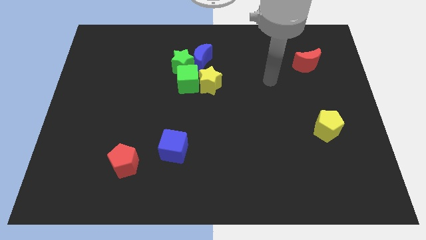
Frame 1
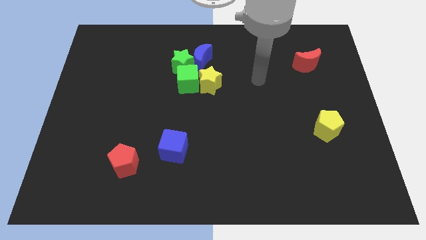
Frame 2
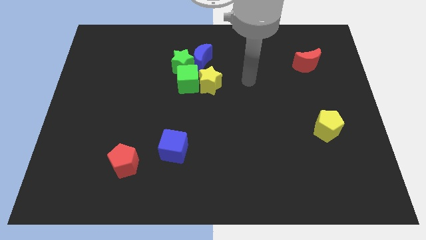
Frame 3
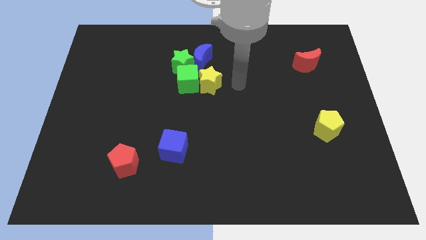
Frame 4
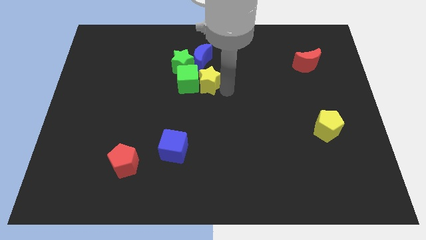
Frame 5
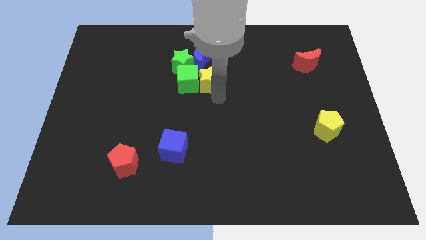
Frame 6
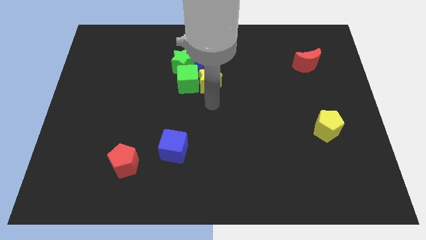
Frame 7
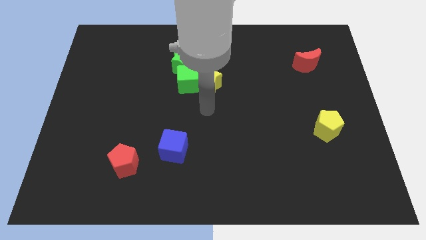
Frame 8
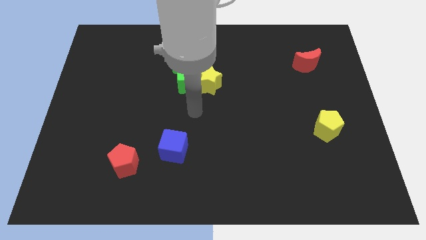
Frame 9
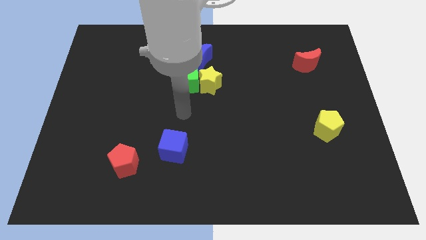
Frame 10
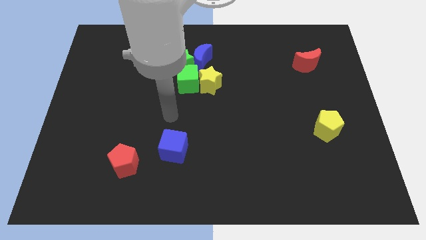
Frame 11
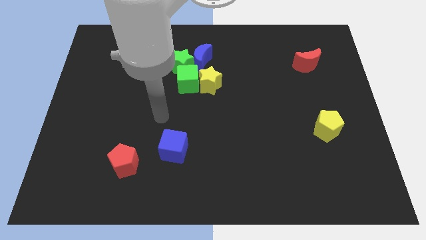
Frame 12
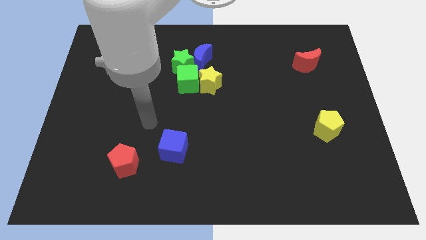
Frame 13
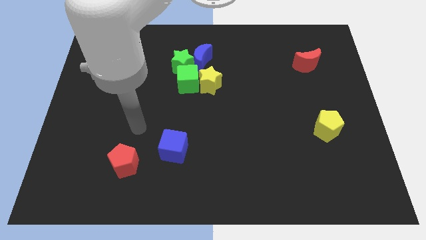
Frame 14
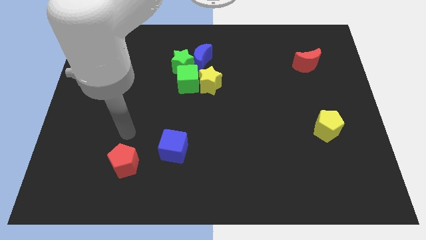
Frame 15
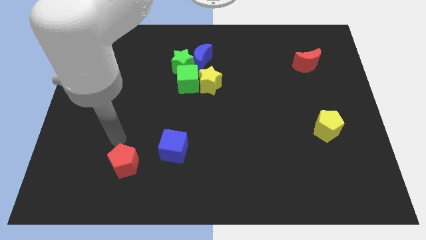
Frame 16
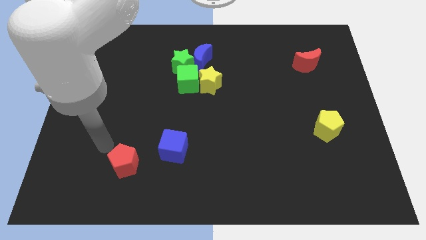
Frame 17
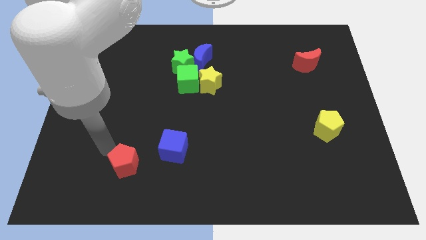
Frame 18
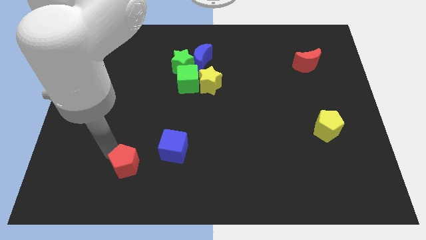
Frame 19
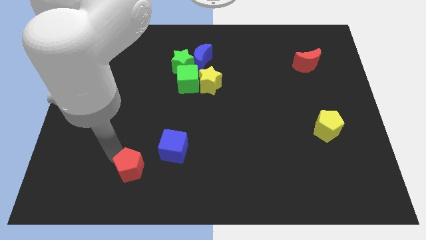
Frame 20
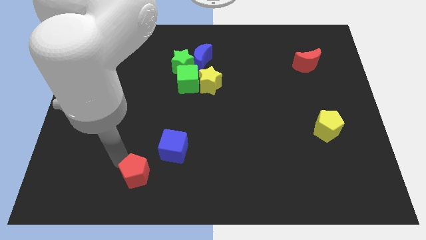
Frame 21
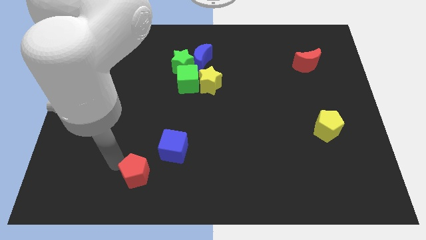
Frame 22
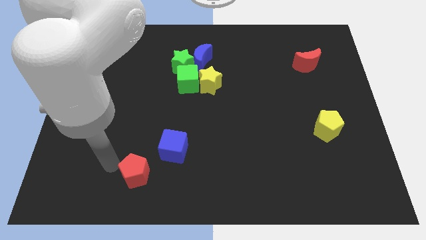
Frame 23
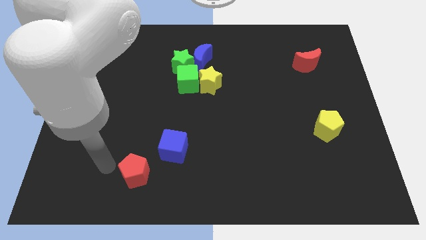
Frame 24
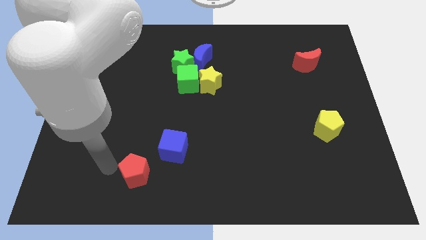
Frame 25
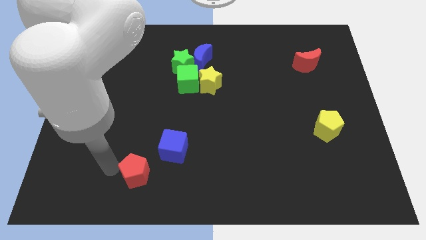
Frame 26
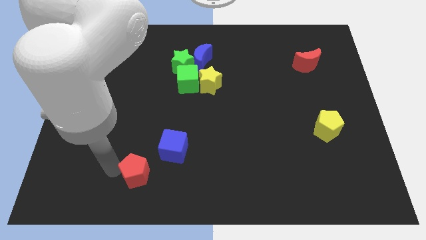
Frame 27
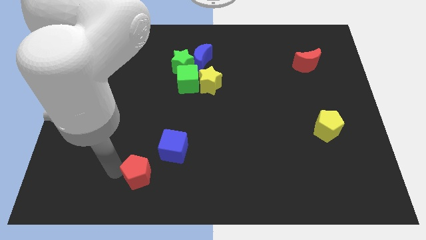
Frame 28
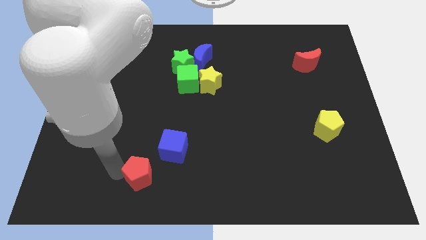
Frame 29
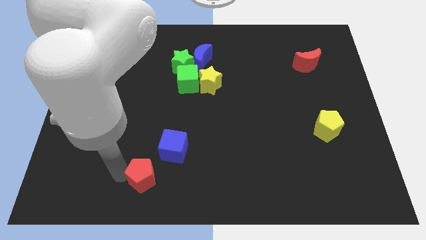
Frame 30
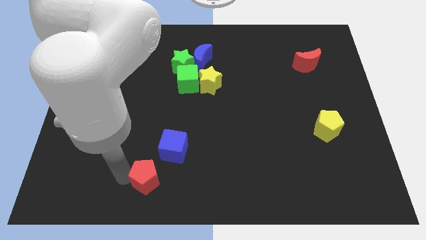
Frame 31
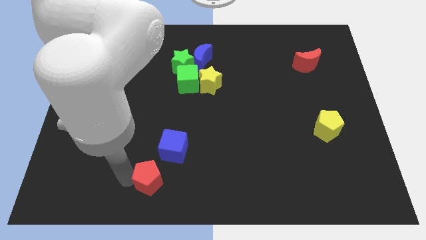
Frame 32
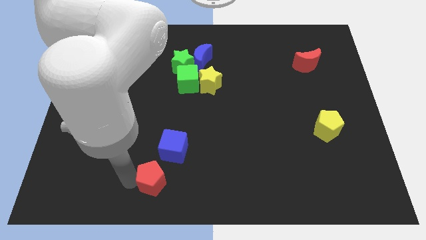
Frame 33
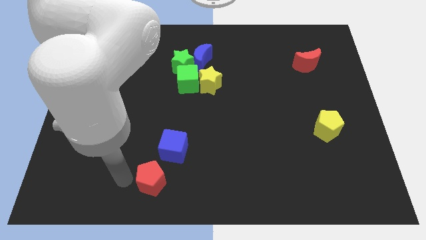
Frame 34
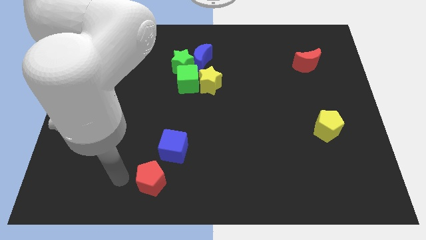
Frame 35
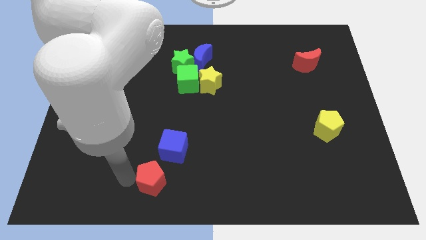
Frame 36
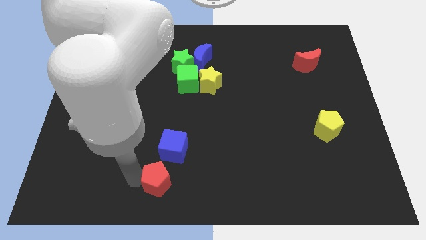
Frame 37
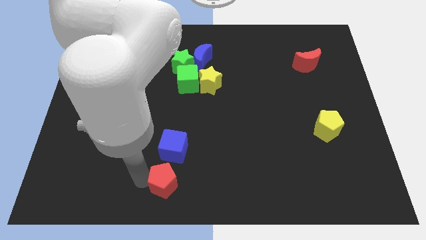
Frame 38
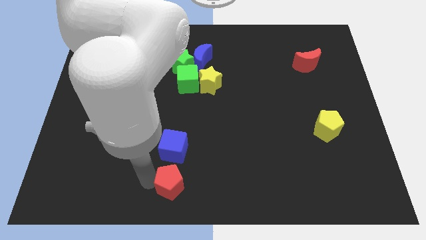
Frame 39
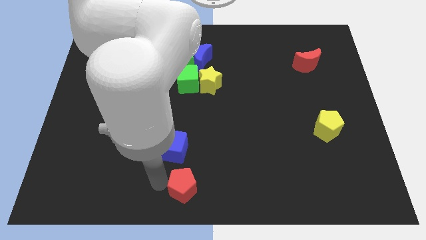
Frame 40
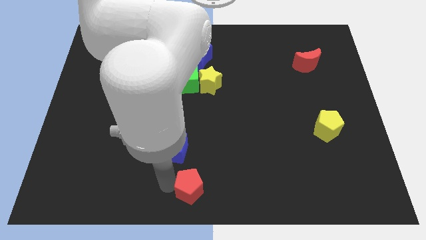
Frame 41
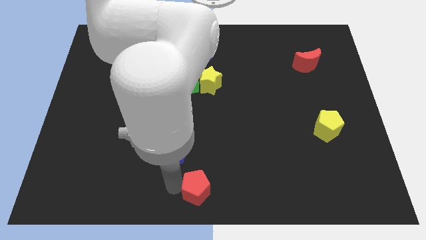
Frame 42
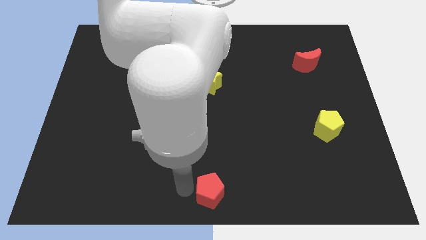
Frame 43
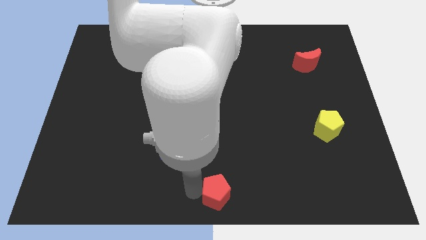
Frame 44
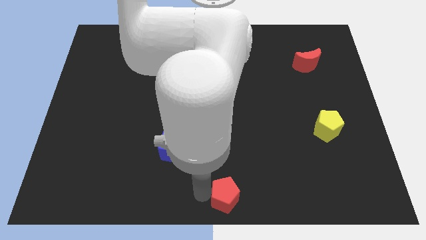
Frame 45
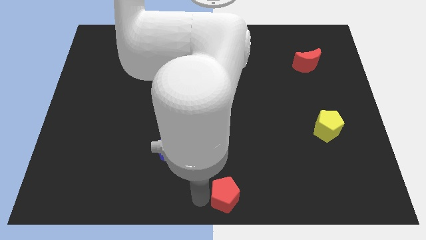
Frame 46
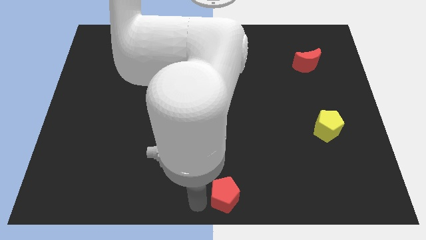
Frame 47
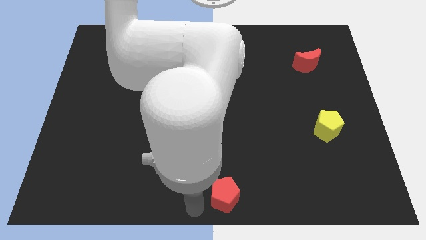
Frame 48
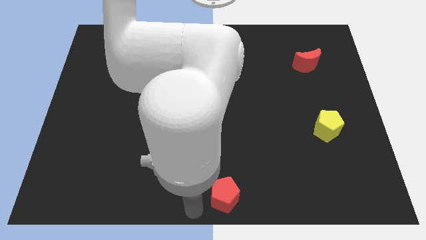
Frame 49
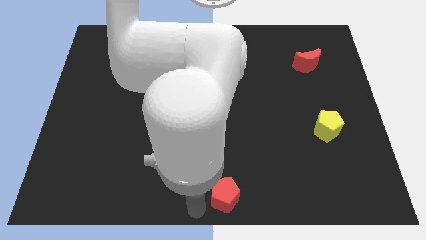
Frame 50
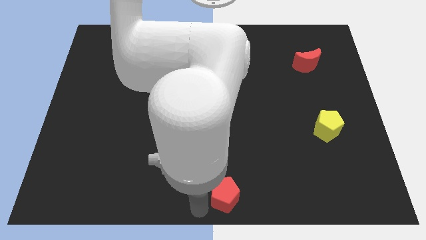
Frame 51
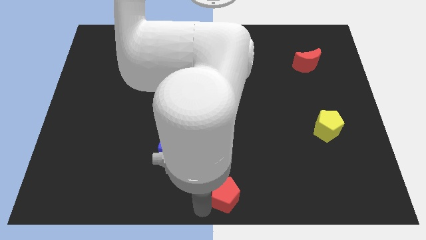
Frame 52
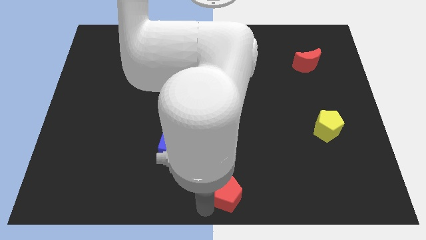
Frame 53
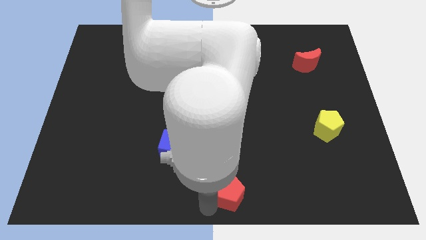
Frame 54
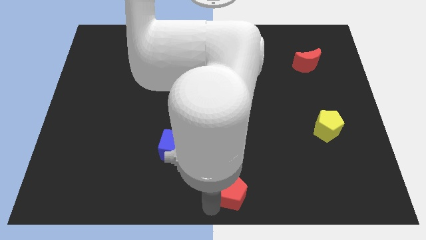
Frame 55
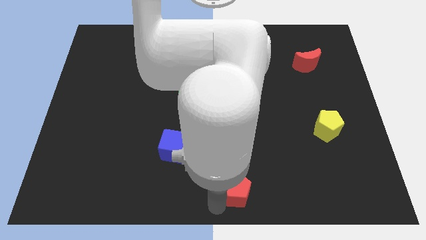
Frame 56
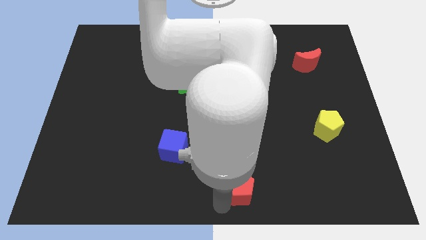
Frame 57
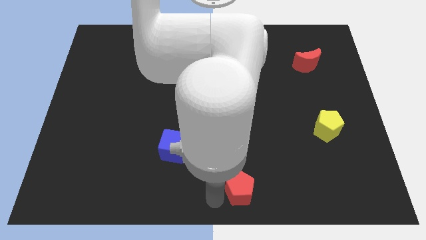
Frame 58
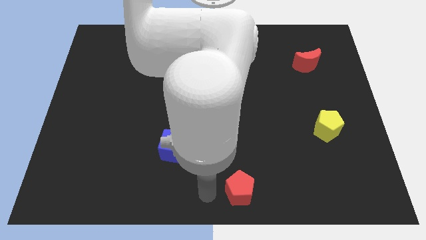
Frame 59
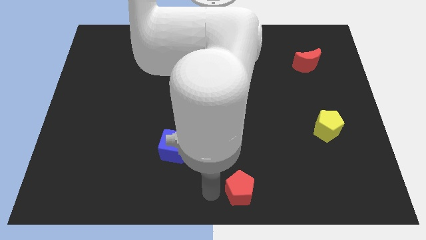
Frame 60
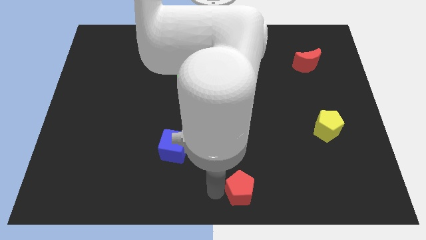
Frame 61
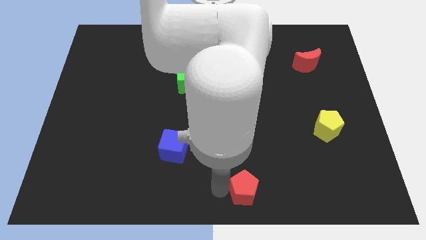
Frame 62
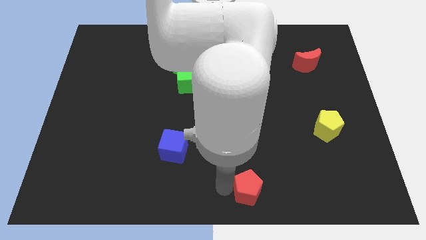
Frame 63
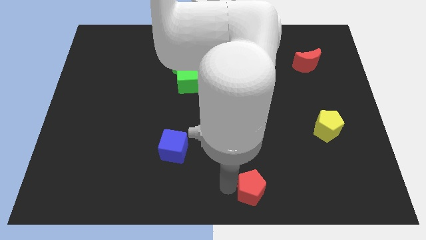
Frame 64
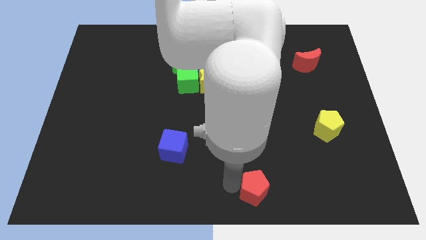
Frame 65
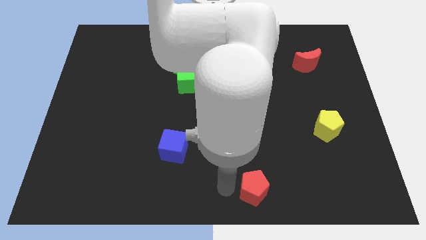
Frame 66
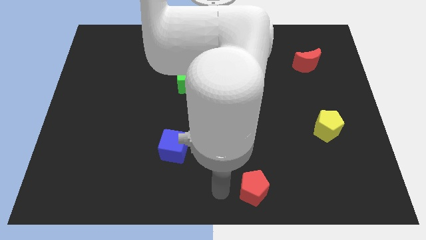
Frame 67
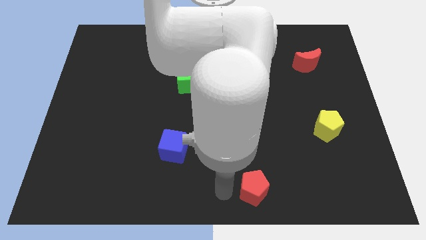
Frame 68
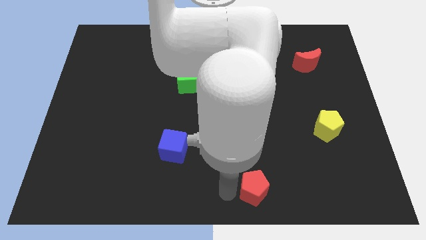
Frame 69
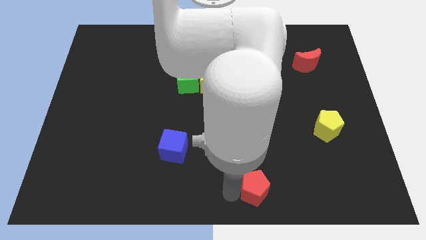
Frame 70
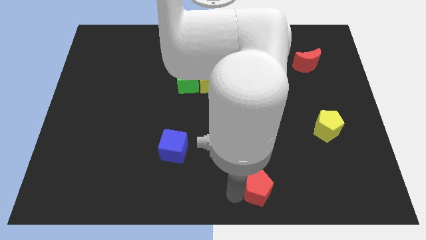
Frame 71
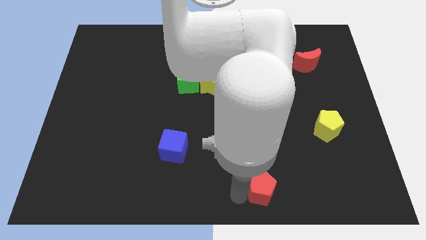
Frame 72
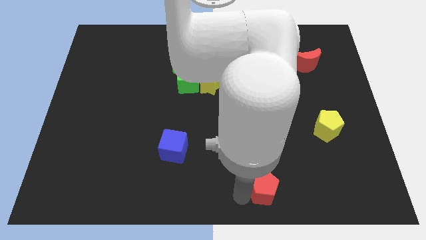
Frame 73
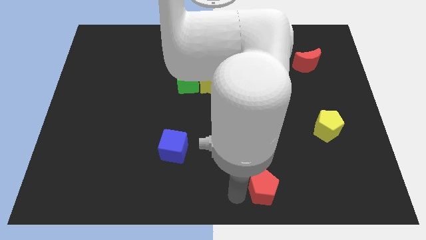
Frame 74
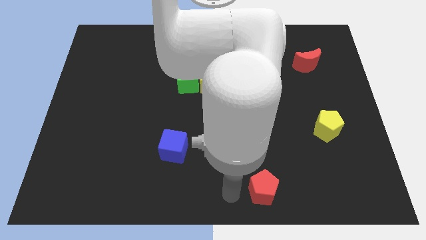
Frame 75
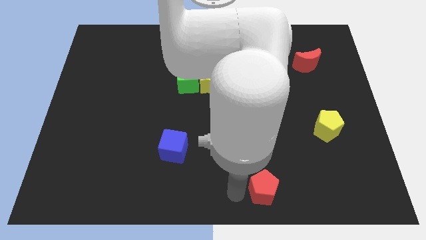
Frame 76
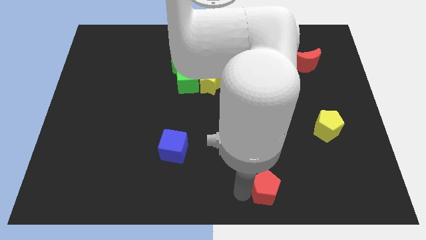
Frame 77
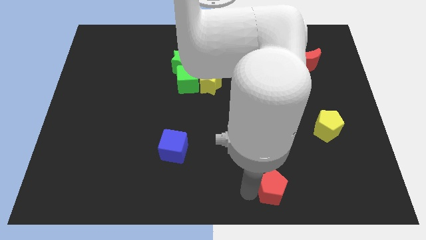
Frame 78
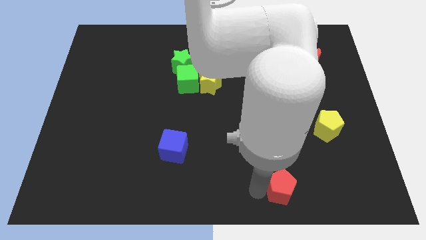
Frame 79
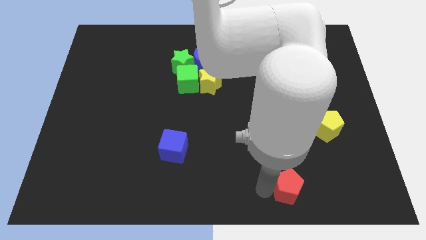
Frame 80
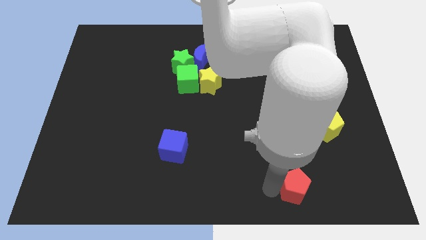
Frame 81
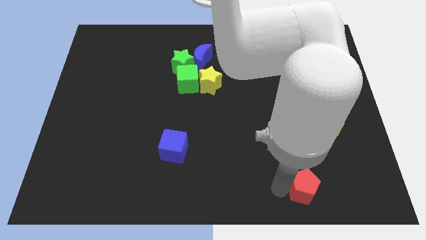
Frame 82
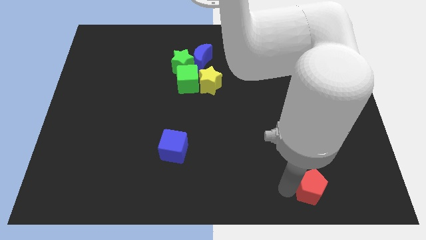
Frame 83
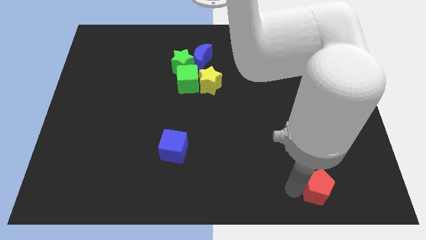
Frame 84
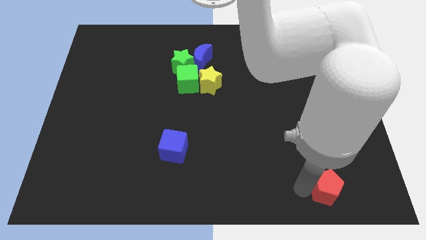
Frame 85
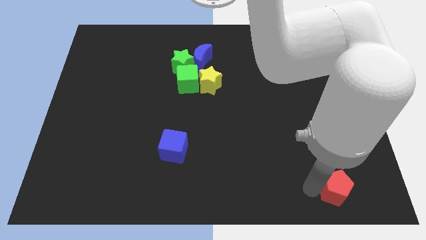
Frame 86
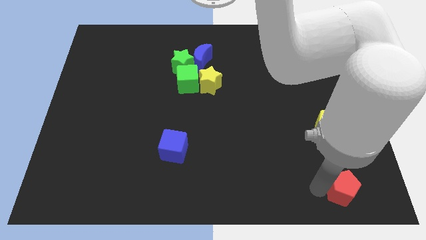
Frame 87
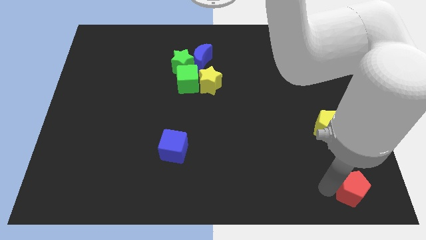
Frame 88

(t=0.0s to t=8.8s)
push the red pentagon to the bottom right corner
